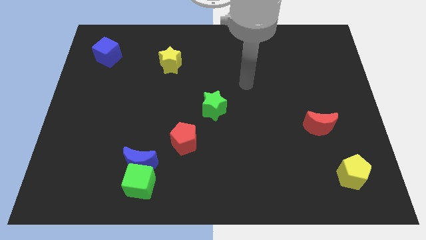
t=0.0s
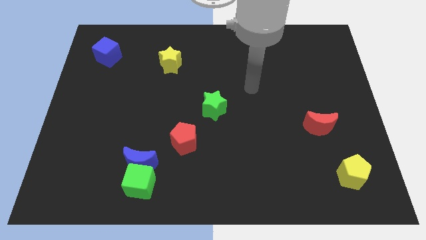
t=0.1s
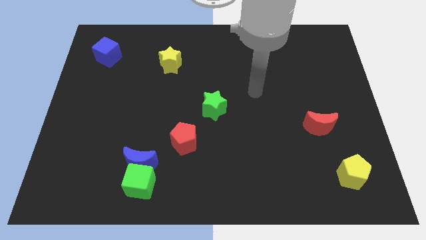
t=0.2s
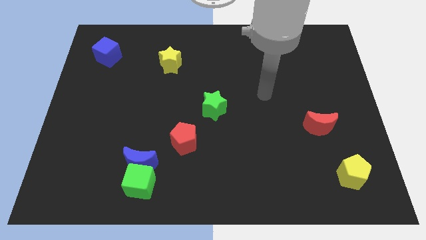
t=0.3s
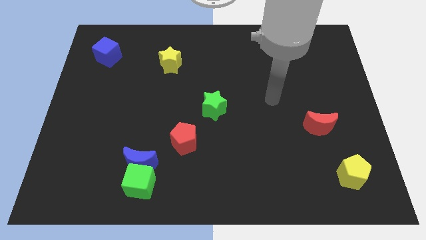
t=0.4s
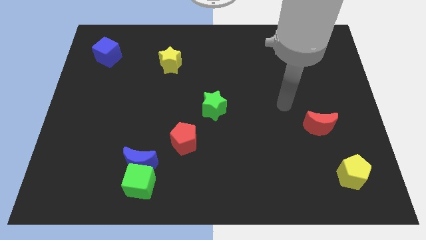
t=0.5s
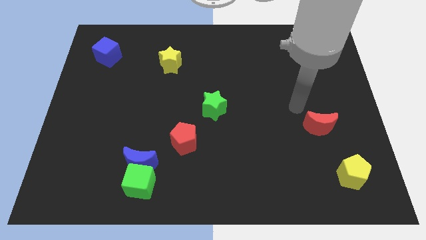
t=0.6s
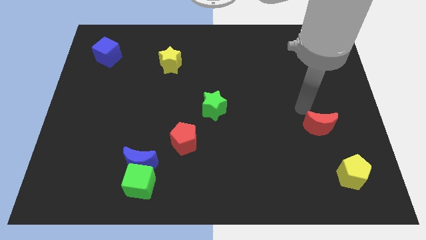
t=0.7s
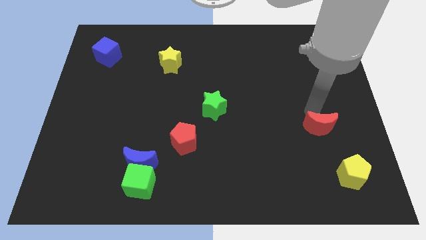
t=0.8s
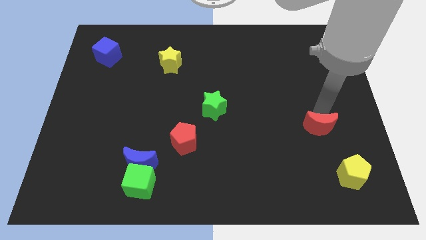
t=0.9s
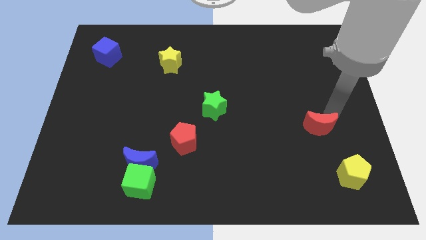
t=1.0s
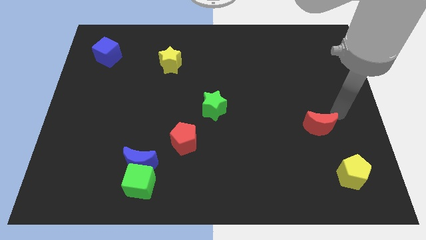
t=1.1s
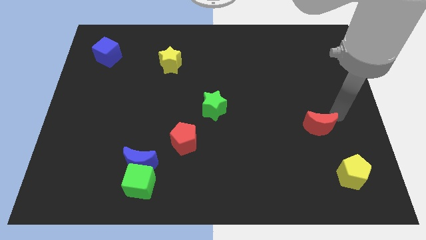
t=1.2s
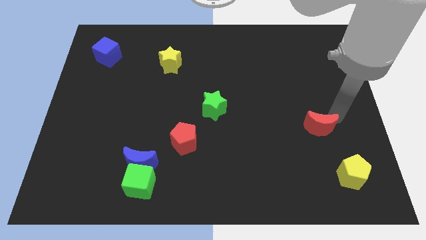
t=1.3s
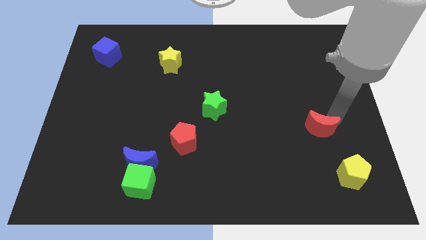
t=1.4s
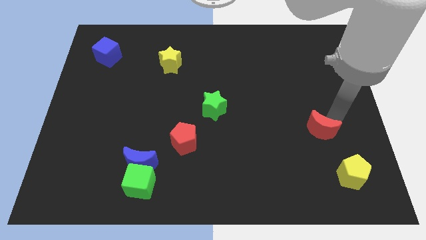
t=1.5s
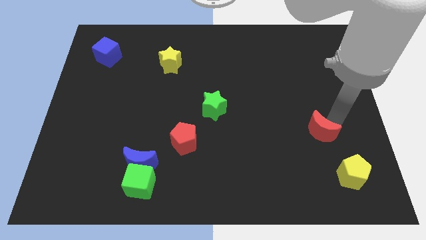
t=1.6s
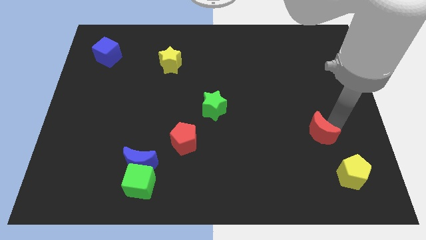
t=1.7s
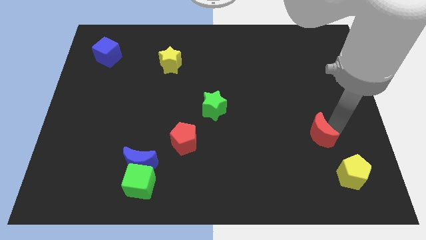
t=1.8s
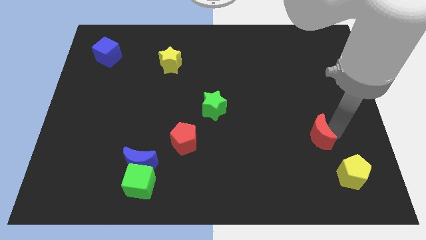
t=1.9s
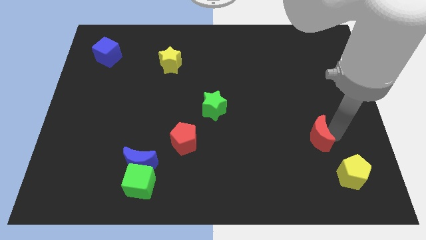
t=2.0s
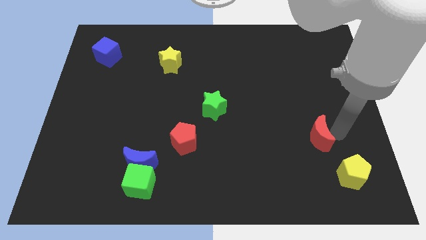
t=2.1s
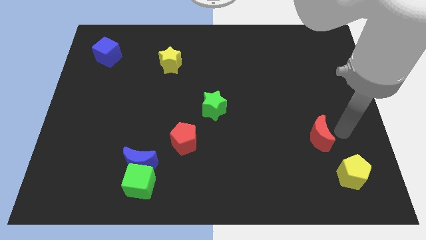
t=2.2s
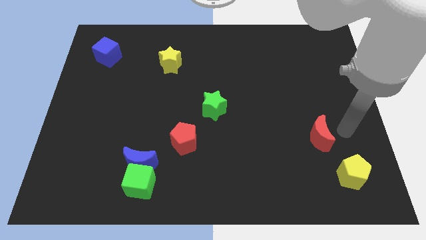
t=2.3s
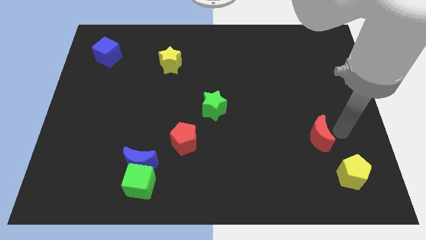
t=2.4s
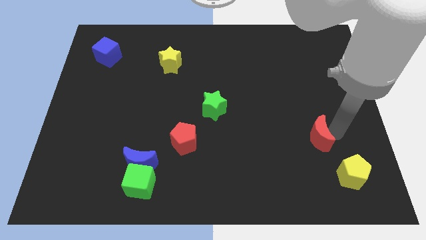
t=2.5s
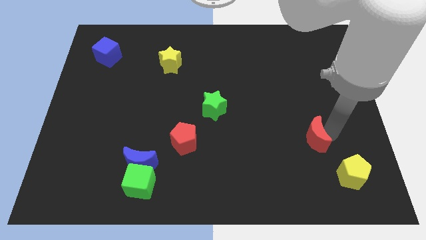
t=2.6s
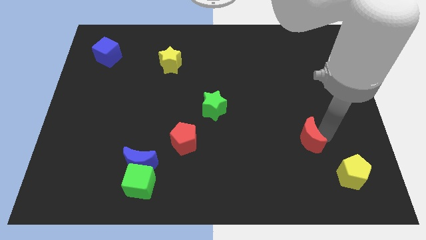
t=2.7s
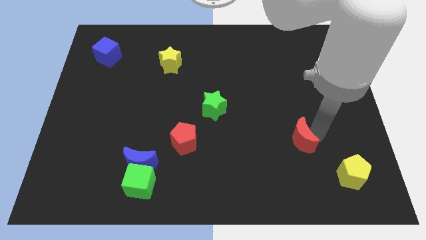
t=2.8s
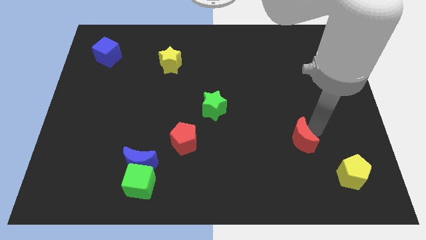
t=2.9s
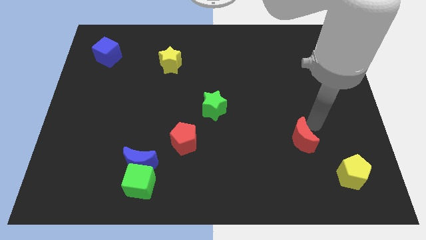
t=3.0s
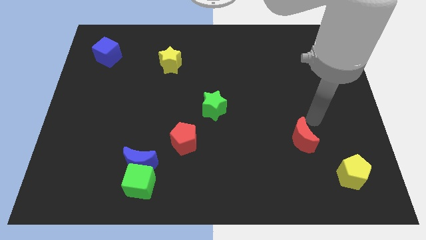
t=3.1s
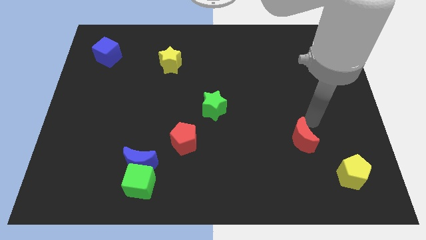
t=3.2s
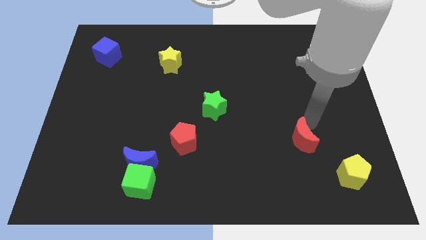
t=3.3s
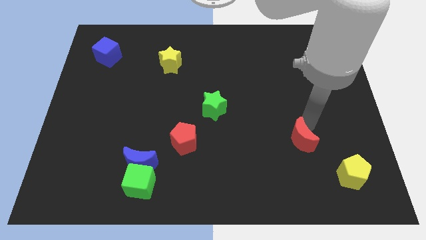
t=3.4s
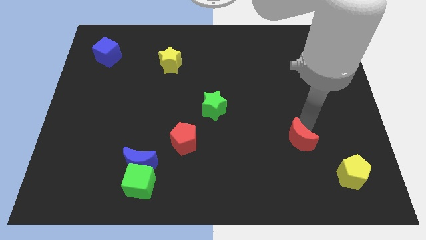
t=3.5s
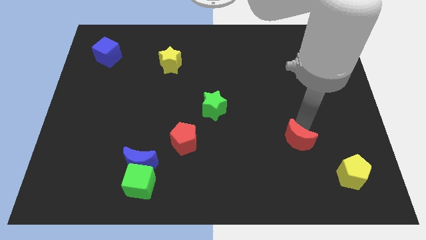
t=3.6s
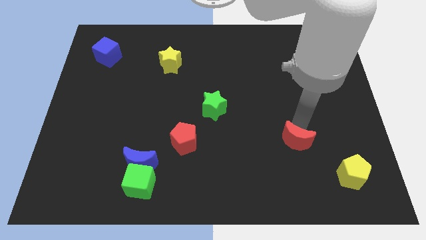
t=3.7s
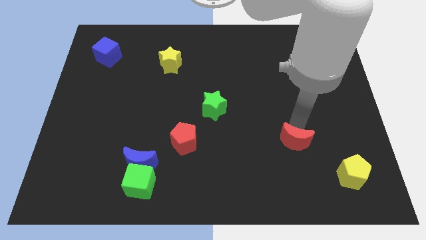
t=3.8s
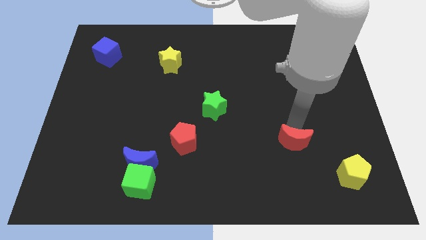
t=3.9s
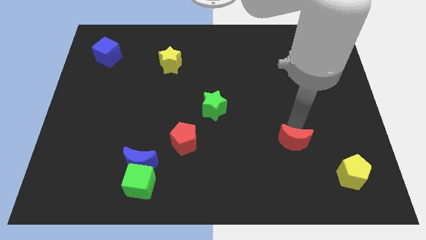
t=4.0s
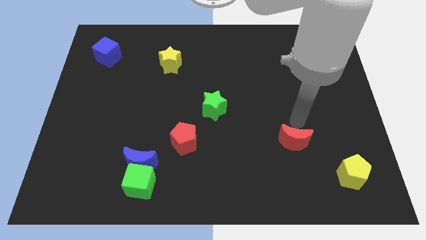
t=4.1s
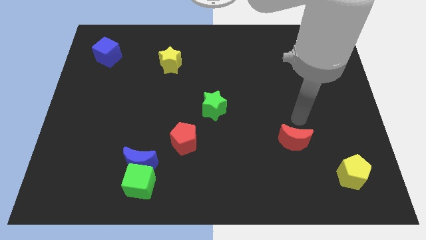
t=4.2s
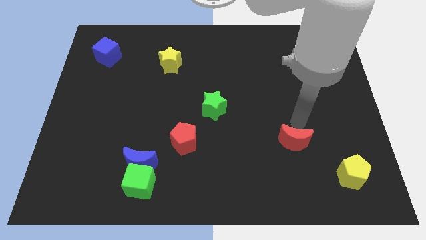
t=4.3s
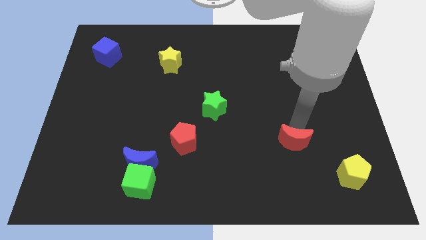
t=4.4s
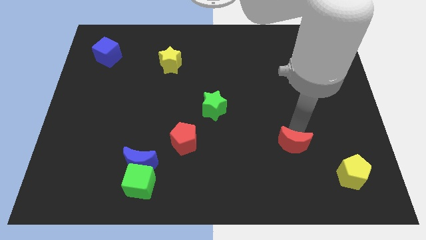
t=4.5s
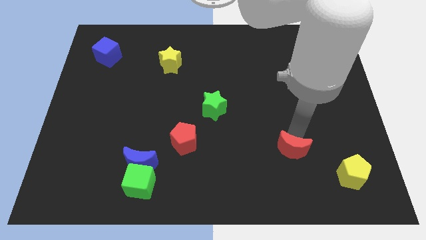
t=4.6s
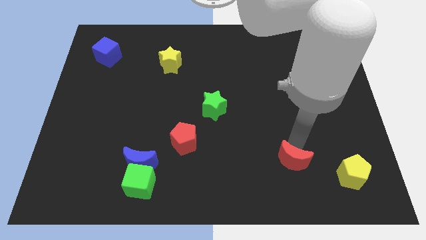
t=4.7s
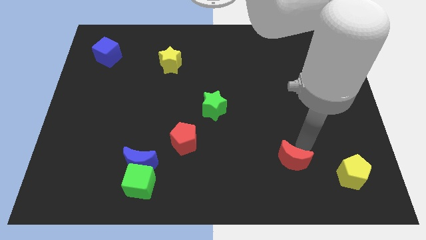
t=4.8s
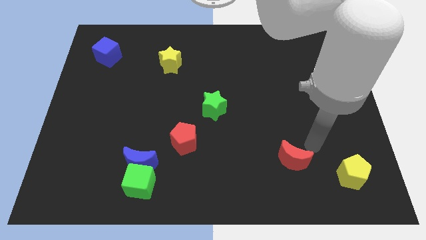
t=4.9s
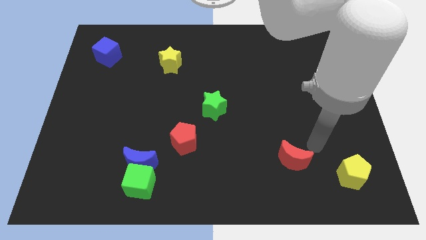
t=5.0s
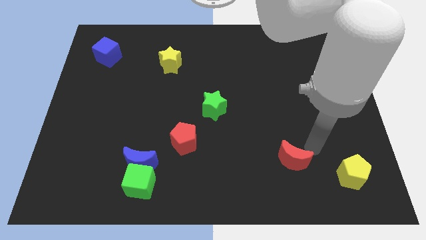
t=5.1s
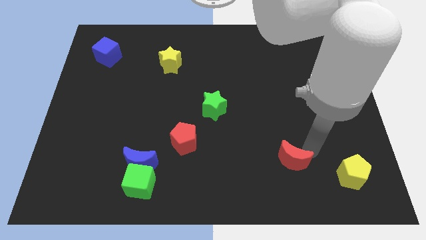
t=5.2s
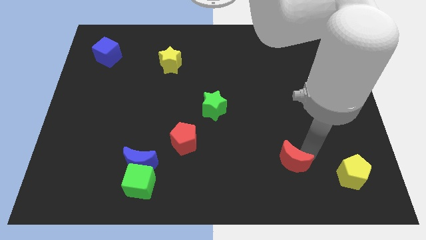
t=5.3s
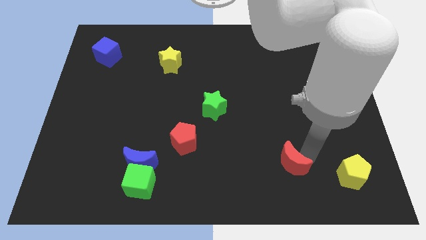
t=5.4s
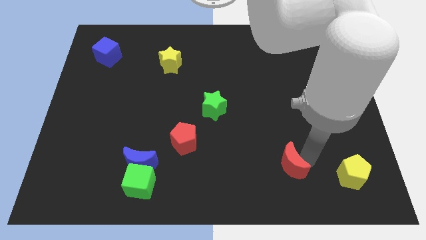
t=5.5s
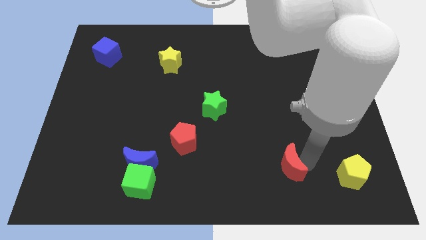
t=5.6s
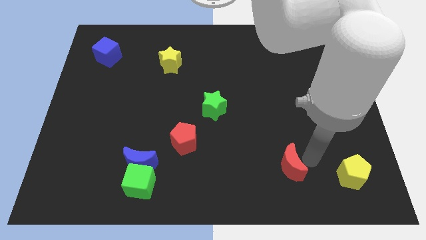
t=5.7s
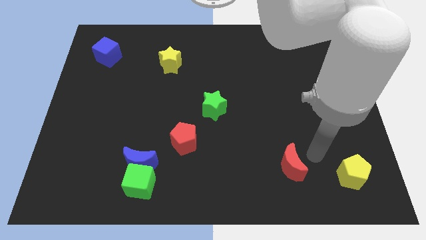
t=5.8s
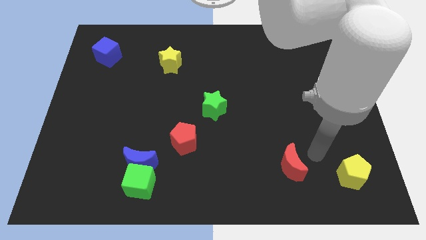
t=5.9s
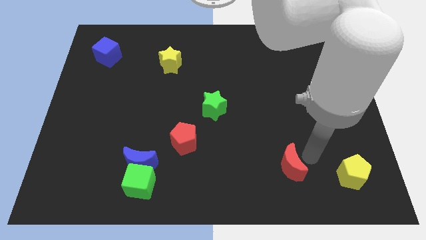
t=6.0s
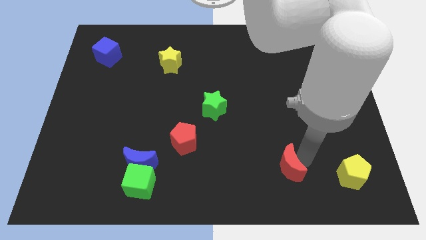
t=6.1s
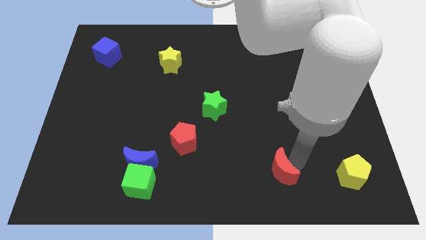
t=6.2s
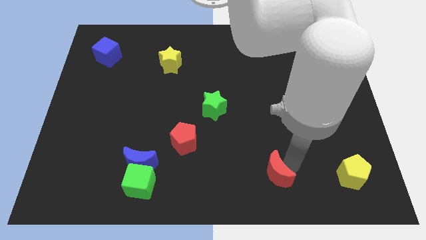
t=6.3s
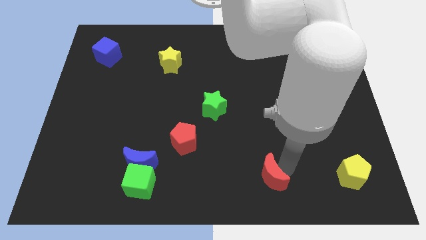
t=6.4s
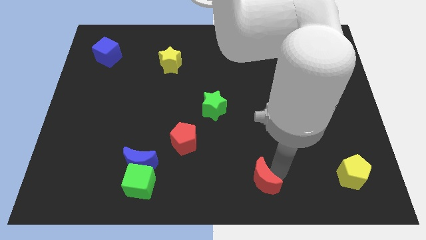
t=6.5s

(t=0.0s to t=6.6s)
move the red moon to the bottom side

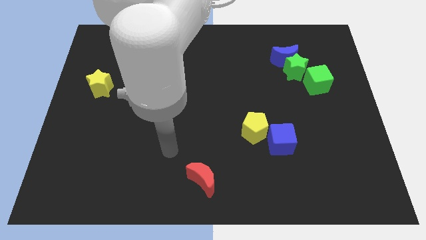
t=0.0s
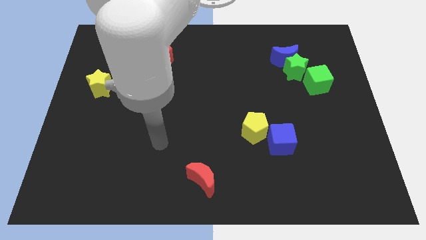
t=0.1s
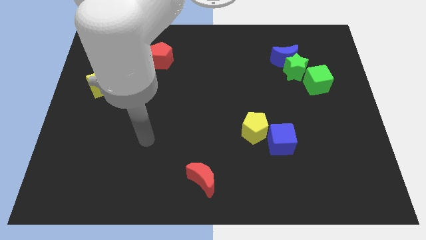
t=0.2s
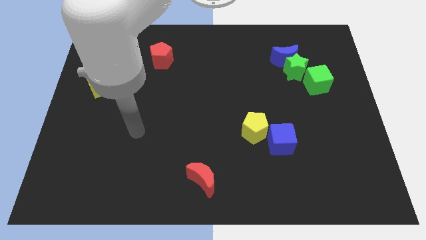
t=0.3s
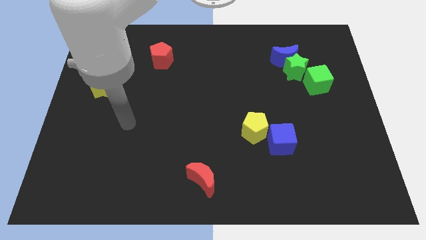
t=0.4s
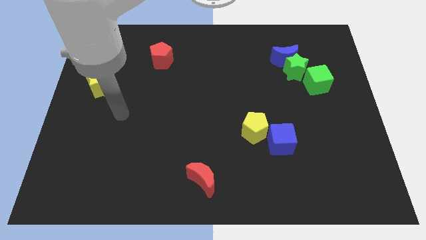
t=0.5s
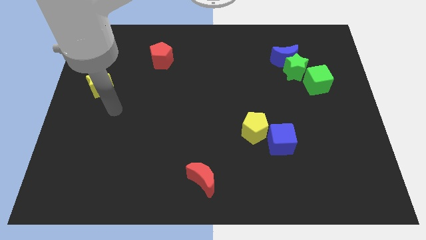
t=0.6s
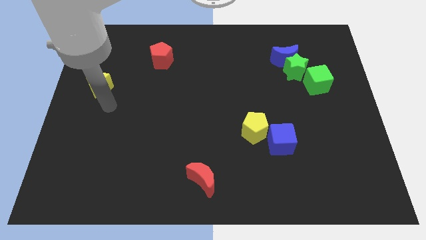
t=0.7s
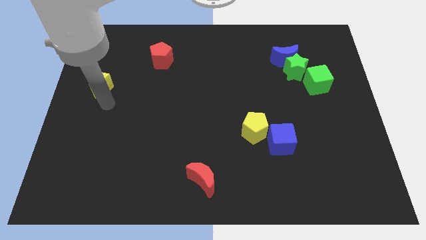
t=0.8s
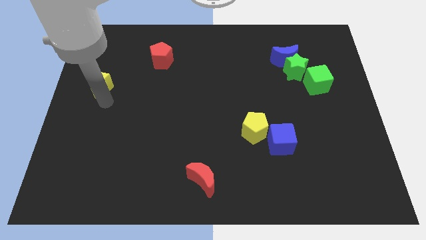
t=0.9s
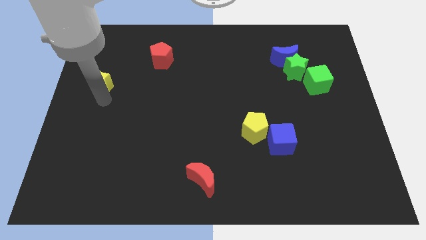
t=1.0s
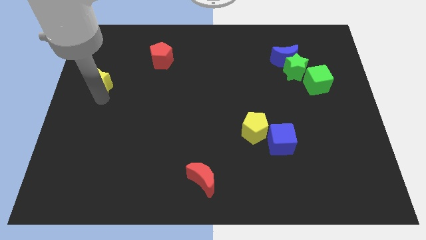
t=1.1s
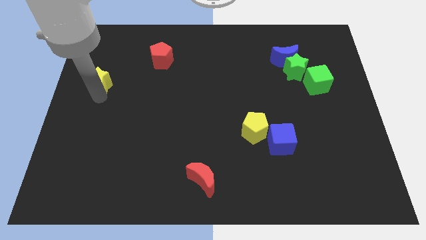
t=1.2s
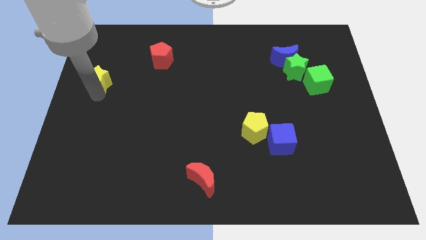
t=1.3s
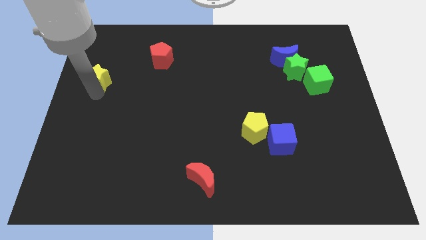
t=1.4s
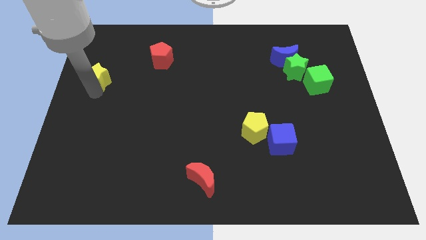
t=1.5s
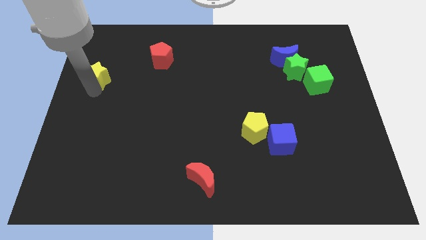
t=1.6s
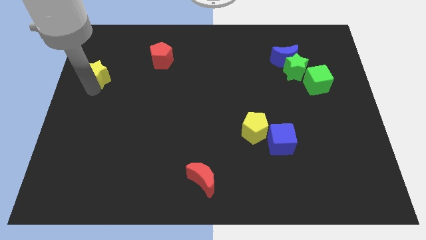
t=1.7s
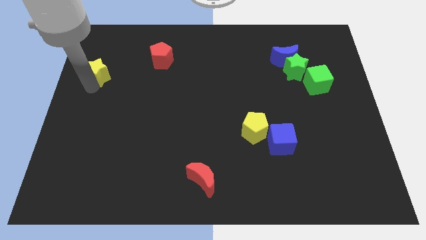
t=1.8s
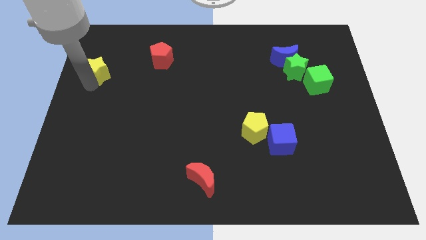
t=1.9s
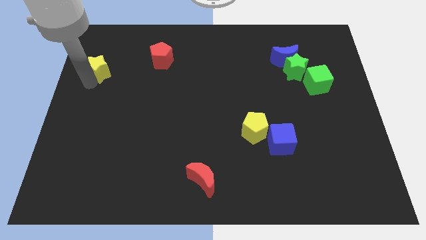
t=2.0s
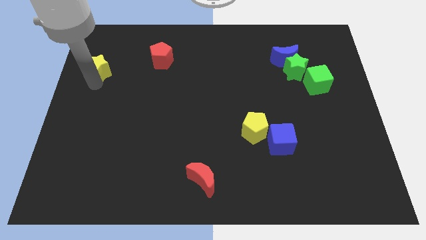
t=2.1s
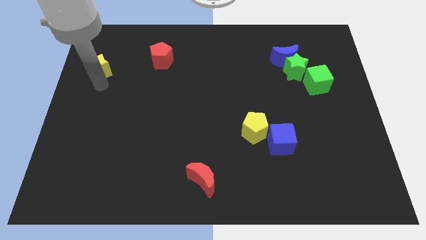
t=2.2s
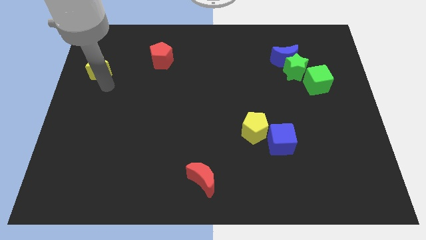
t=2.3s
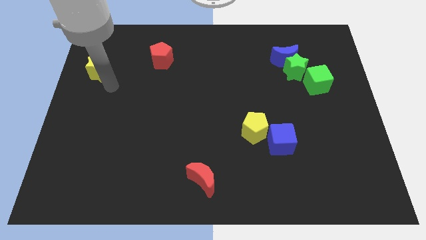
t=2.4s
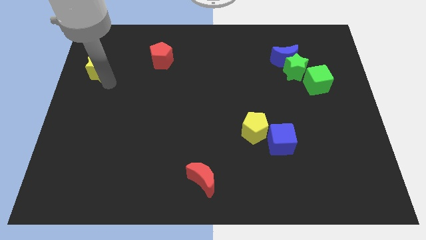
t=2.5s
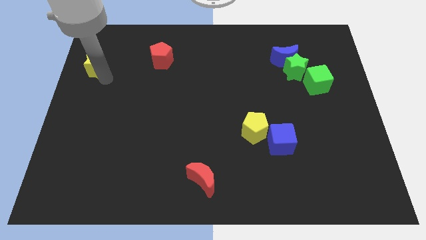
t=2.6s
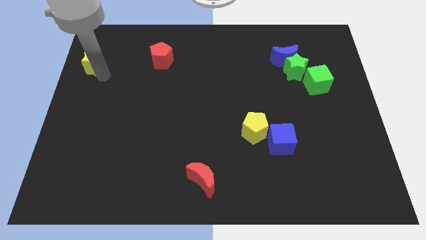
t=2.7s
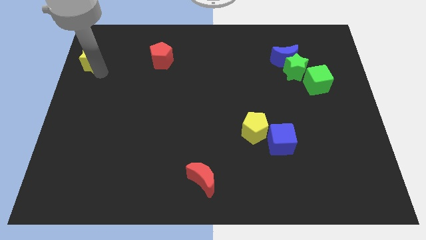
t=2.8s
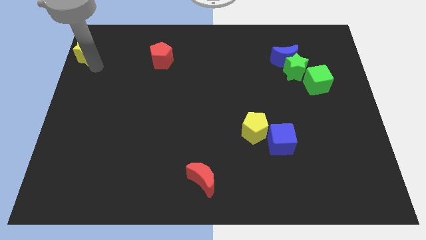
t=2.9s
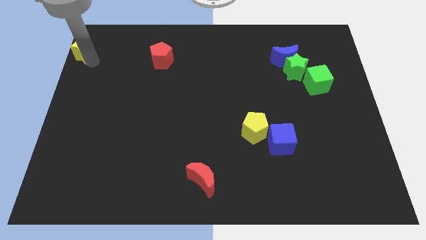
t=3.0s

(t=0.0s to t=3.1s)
slide the yellow star to the top left of the board
